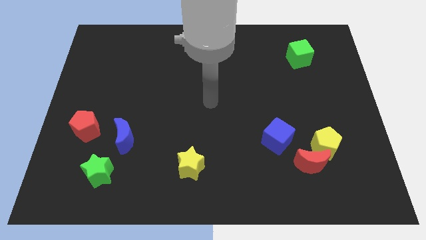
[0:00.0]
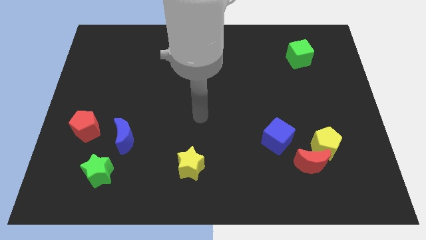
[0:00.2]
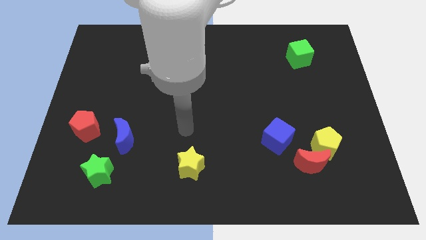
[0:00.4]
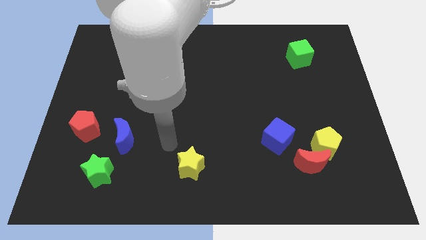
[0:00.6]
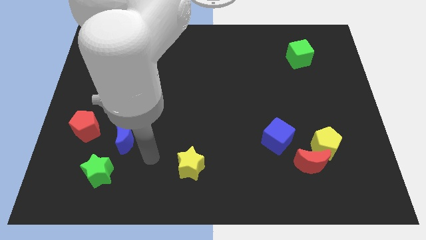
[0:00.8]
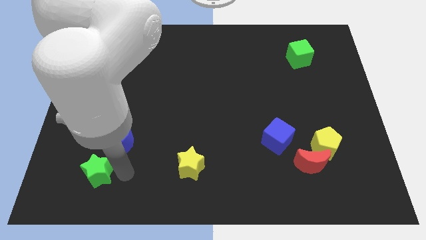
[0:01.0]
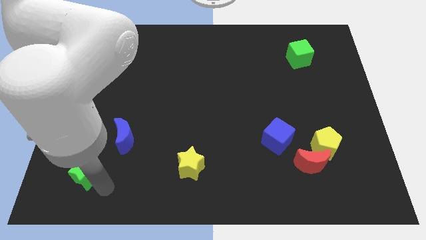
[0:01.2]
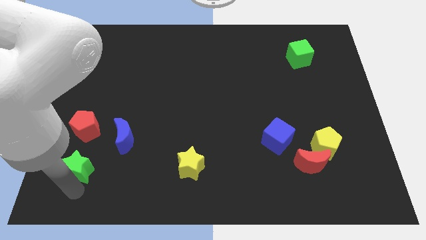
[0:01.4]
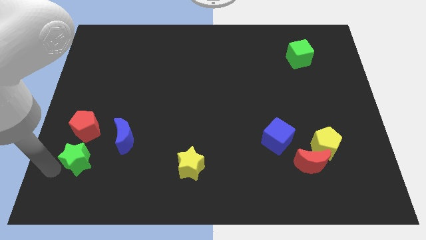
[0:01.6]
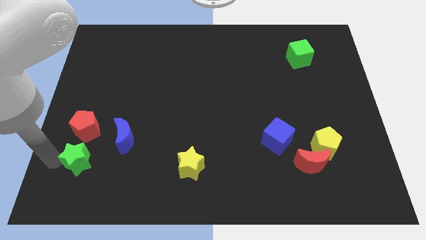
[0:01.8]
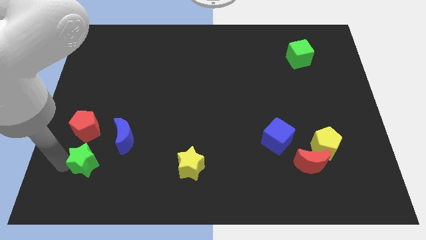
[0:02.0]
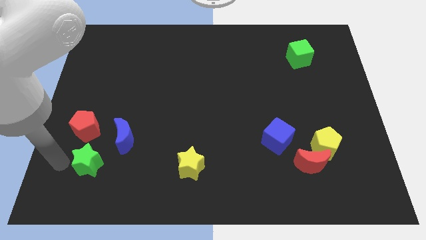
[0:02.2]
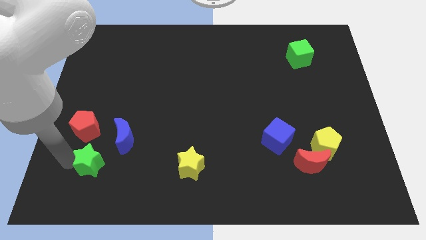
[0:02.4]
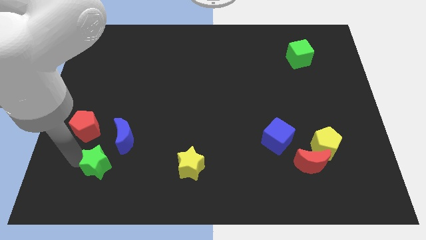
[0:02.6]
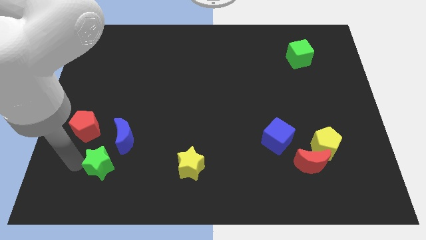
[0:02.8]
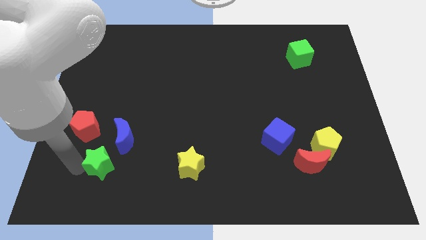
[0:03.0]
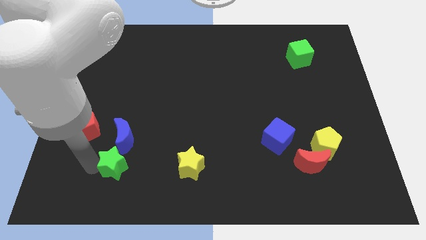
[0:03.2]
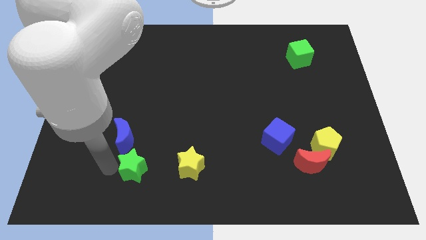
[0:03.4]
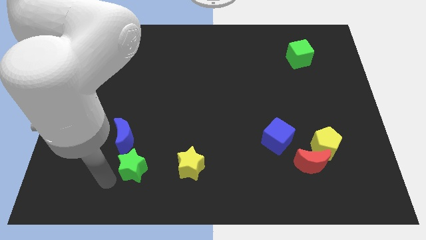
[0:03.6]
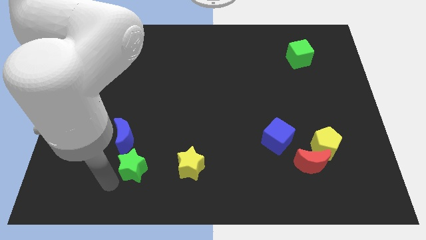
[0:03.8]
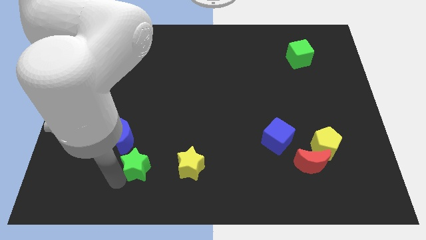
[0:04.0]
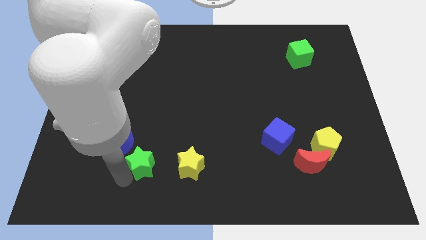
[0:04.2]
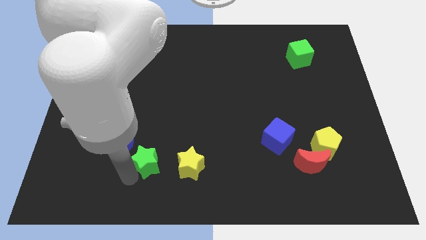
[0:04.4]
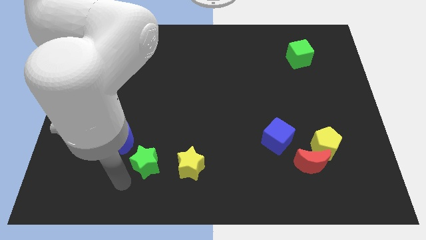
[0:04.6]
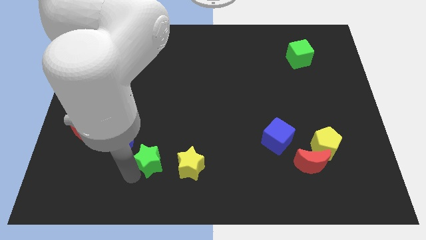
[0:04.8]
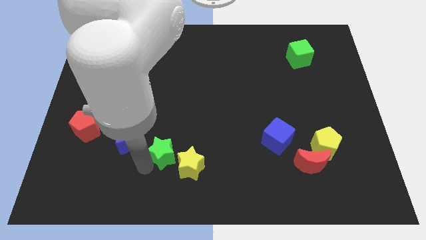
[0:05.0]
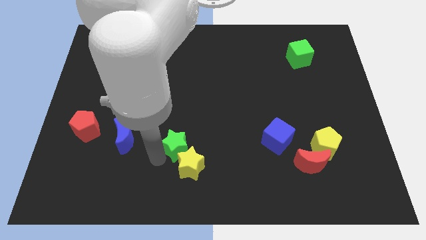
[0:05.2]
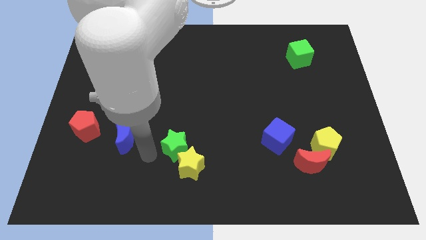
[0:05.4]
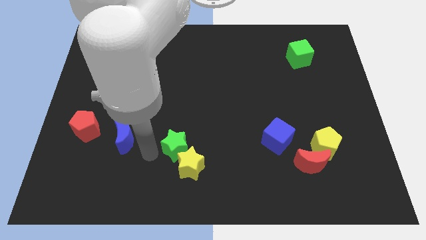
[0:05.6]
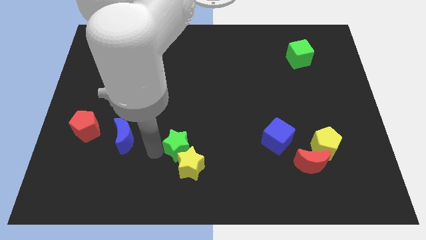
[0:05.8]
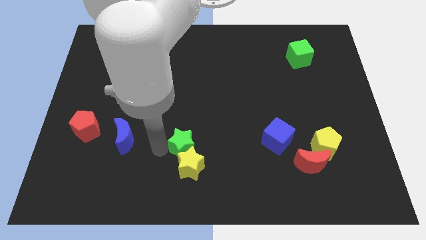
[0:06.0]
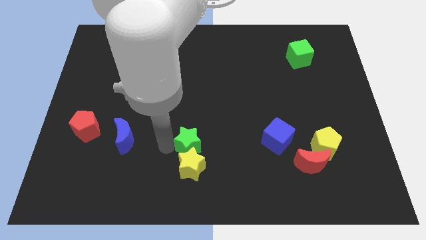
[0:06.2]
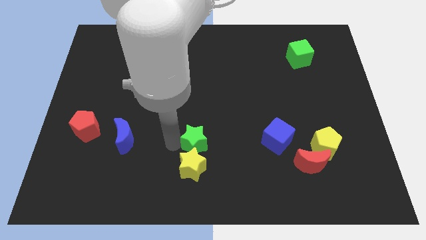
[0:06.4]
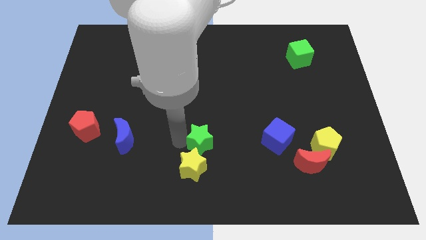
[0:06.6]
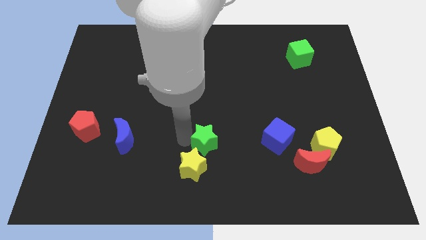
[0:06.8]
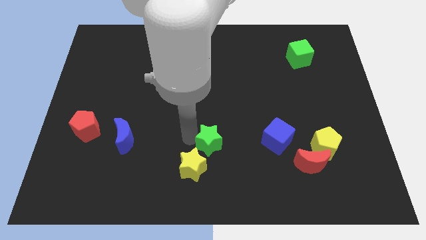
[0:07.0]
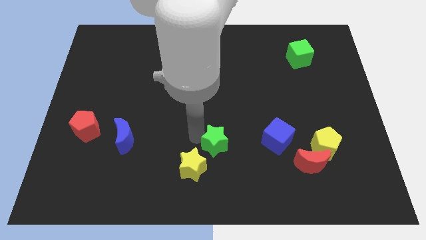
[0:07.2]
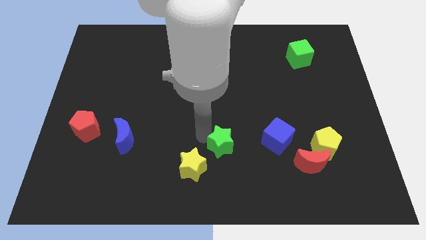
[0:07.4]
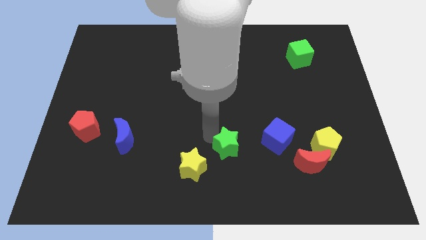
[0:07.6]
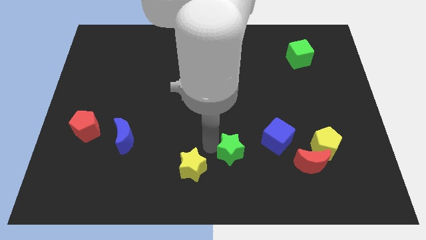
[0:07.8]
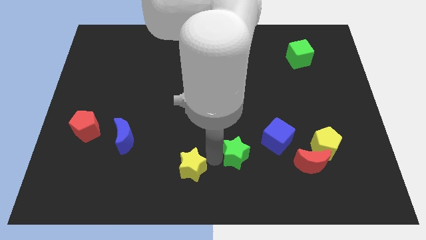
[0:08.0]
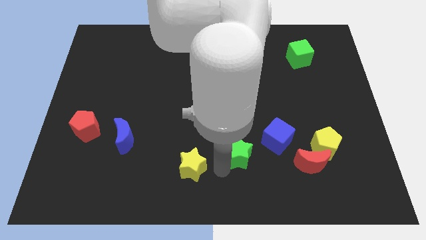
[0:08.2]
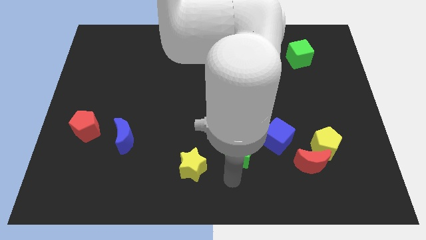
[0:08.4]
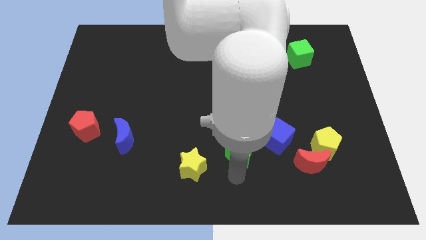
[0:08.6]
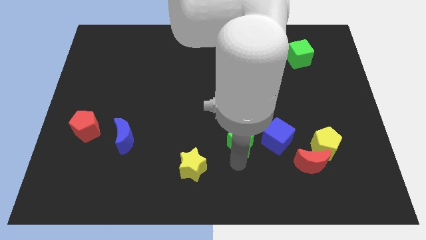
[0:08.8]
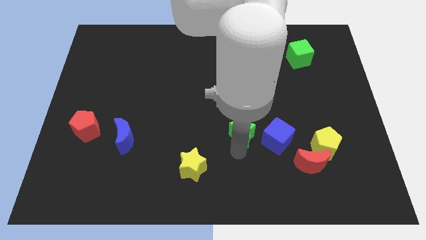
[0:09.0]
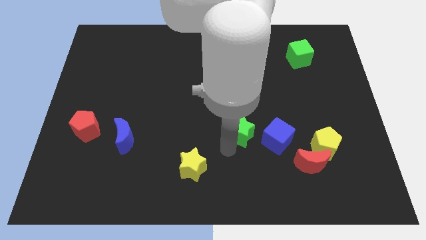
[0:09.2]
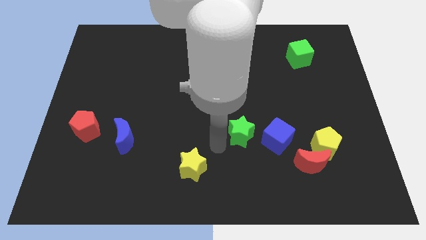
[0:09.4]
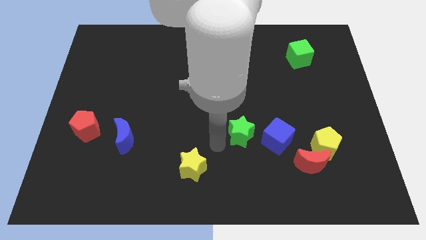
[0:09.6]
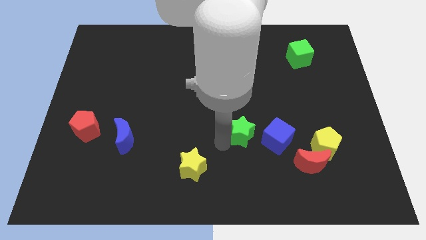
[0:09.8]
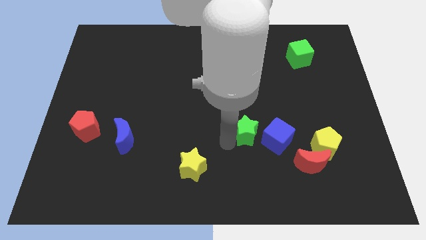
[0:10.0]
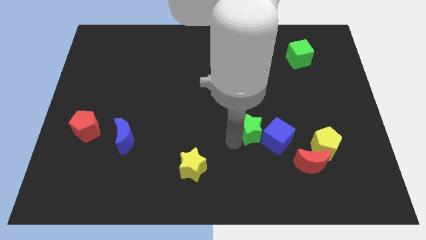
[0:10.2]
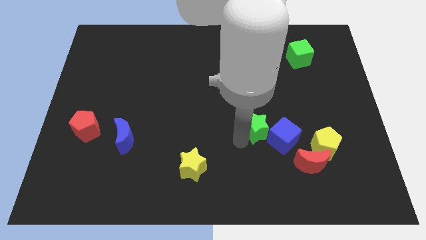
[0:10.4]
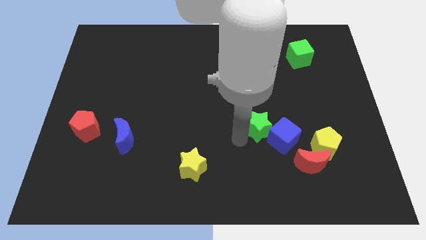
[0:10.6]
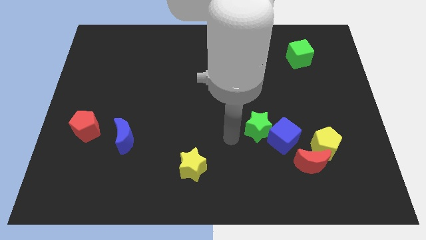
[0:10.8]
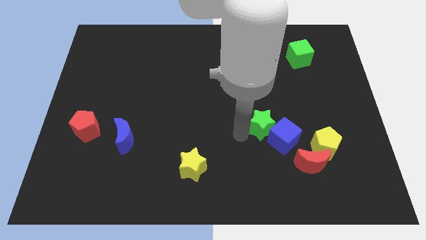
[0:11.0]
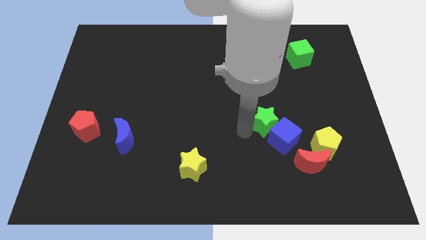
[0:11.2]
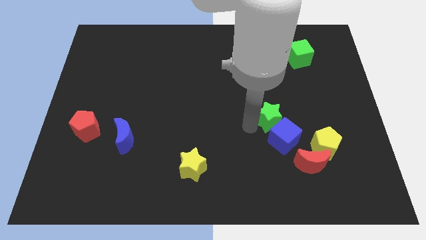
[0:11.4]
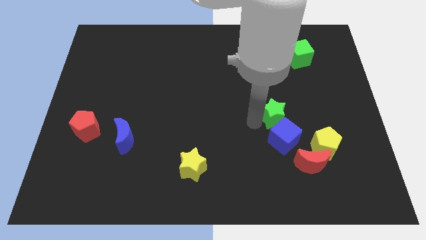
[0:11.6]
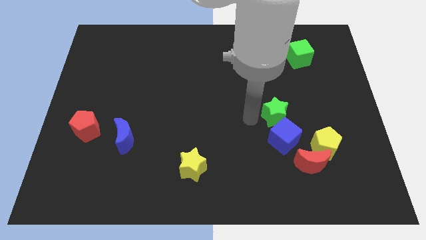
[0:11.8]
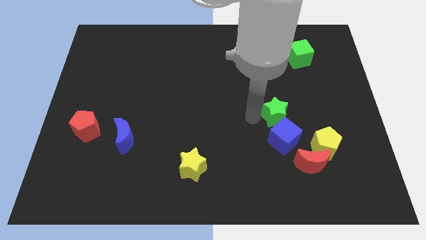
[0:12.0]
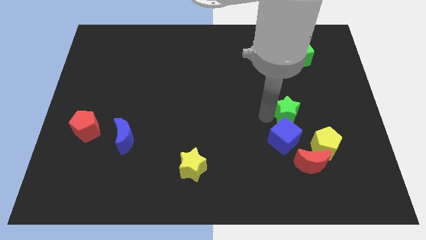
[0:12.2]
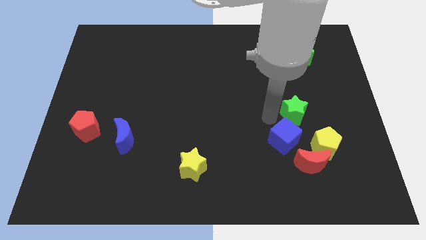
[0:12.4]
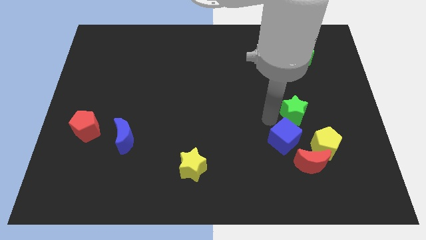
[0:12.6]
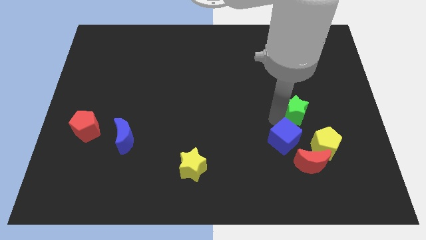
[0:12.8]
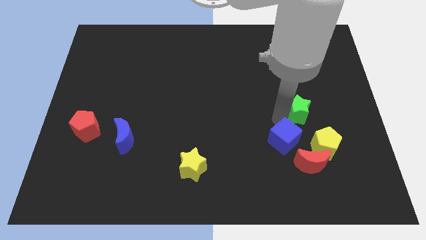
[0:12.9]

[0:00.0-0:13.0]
put the green star above the yellow pentagon
